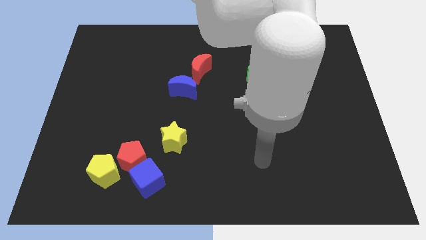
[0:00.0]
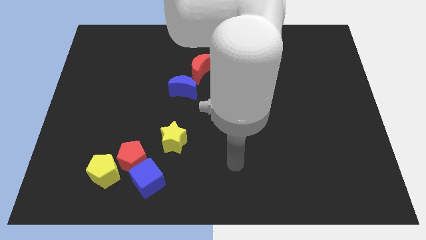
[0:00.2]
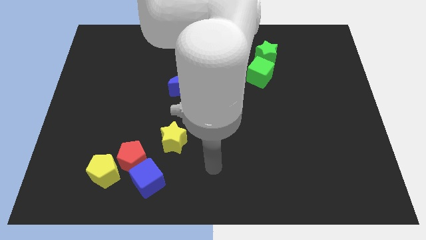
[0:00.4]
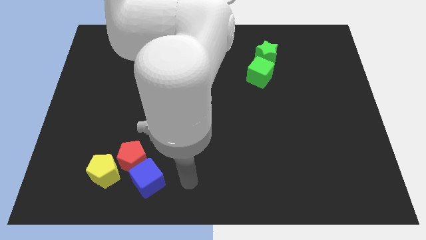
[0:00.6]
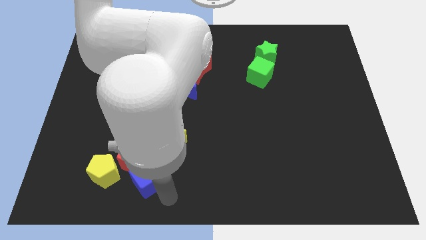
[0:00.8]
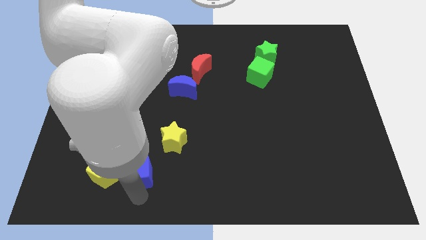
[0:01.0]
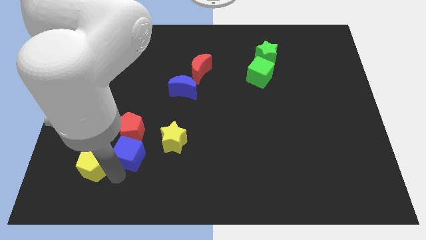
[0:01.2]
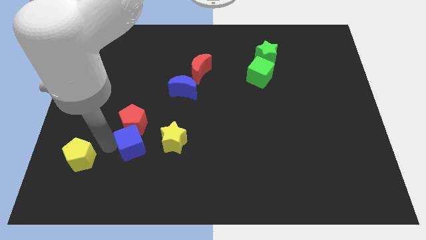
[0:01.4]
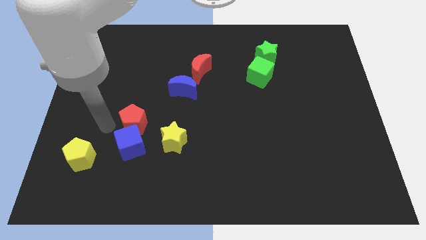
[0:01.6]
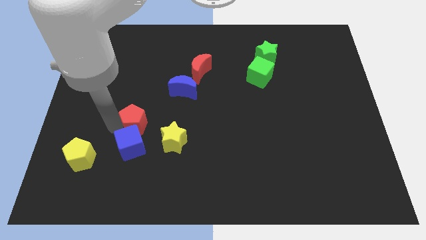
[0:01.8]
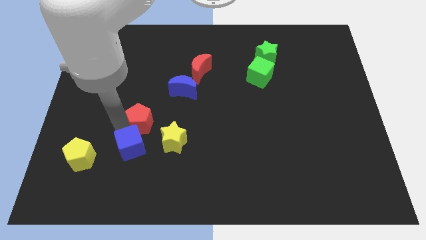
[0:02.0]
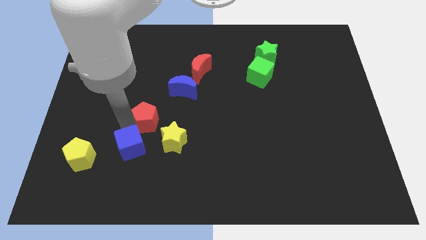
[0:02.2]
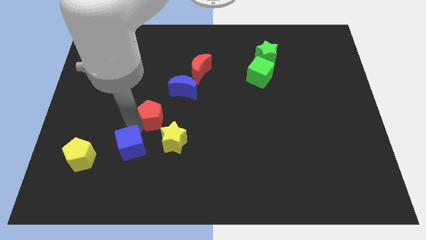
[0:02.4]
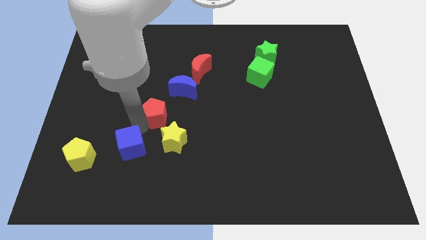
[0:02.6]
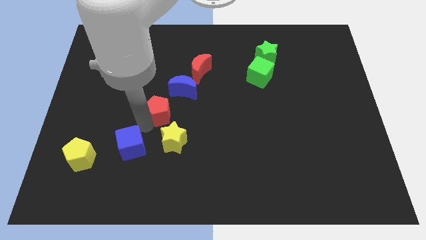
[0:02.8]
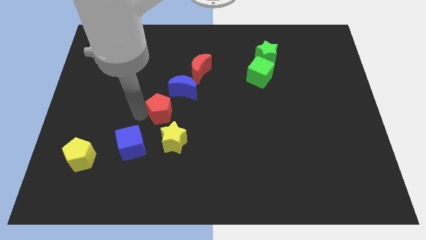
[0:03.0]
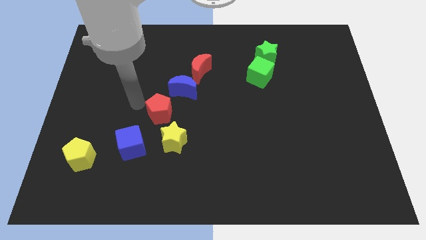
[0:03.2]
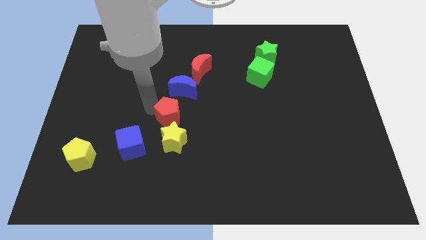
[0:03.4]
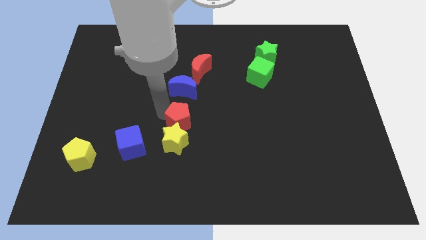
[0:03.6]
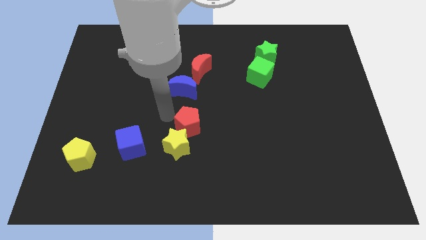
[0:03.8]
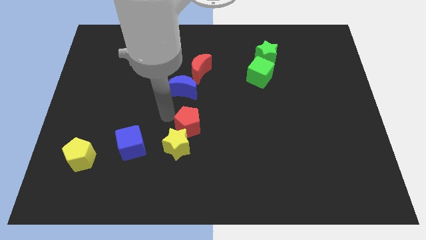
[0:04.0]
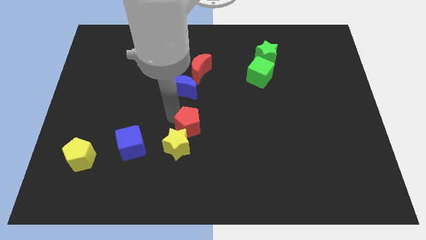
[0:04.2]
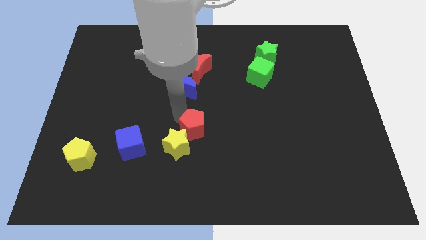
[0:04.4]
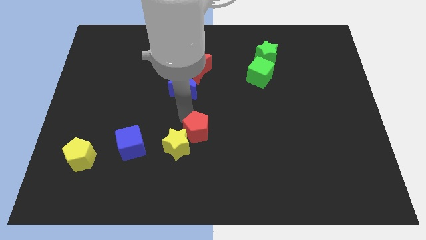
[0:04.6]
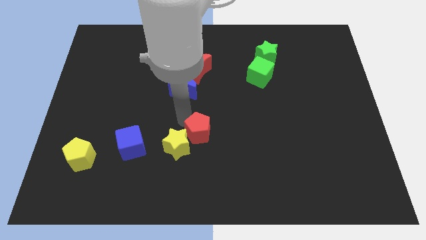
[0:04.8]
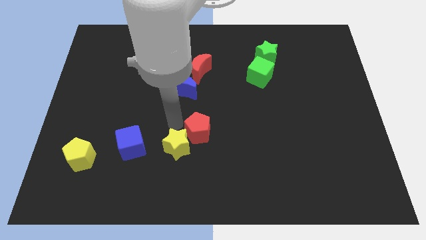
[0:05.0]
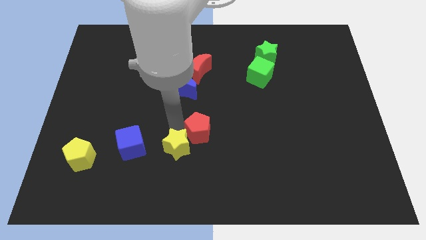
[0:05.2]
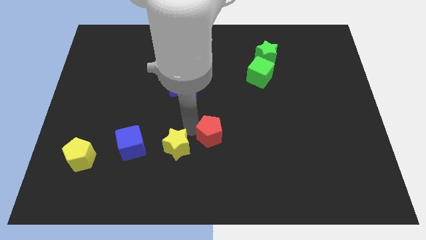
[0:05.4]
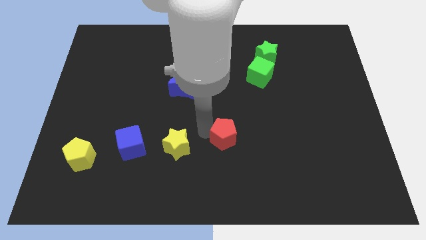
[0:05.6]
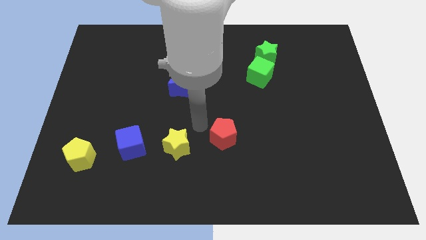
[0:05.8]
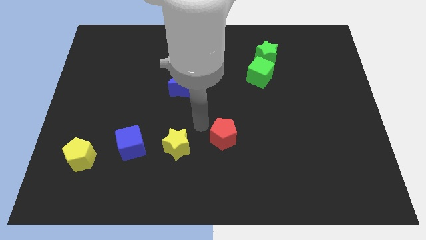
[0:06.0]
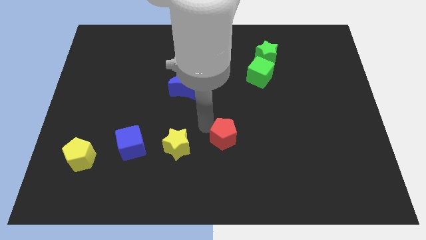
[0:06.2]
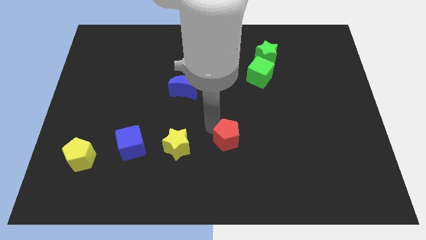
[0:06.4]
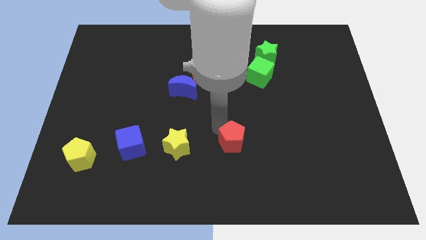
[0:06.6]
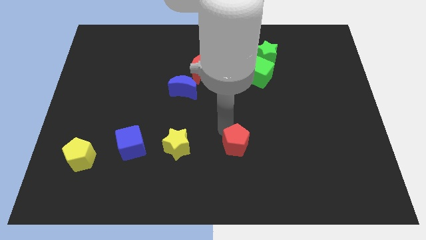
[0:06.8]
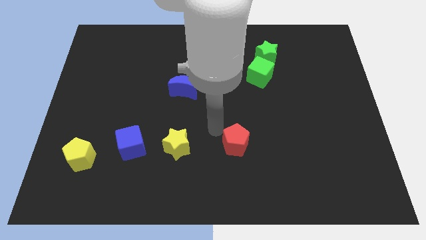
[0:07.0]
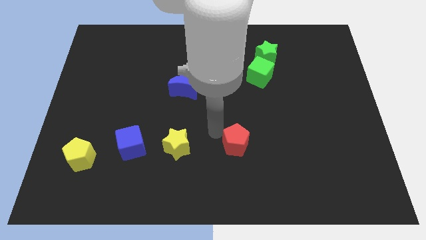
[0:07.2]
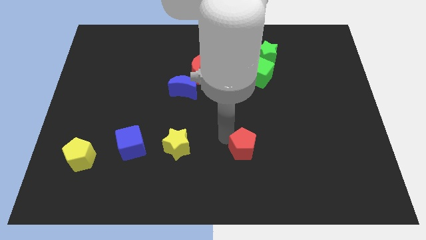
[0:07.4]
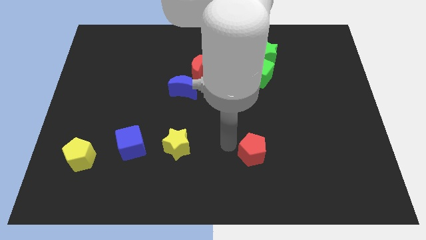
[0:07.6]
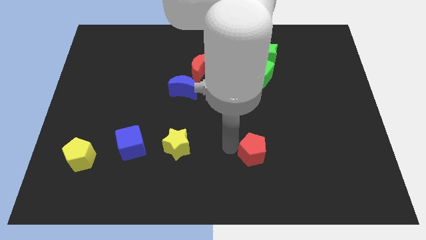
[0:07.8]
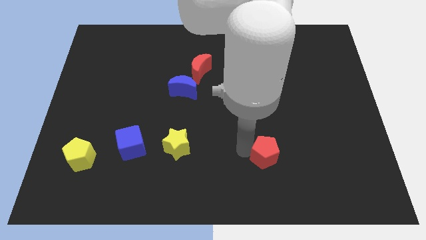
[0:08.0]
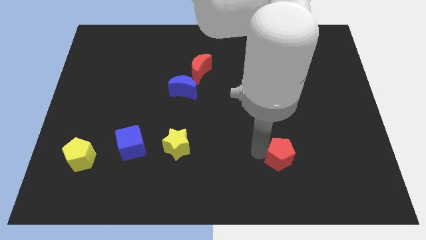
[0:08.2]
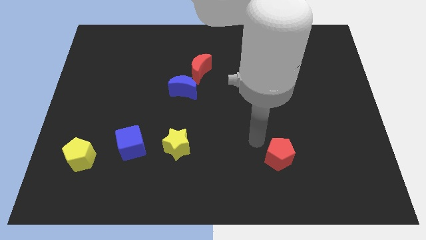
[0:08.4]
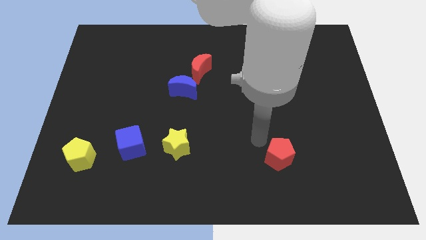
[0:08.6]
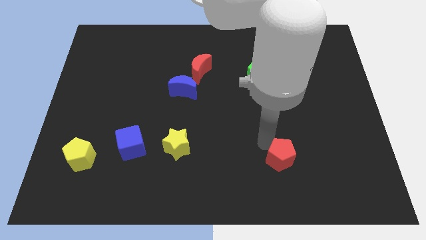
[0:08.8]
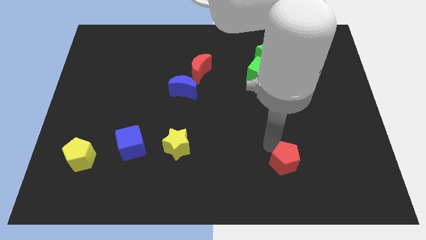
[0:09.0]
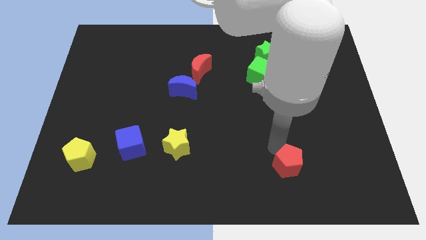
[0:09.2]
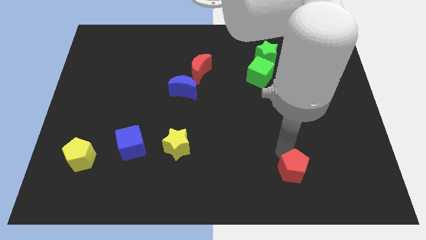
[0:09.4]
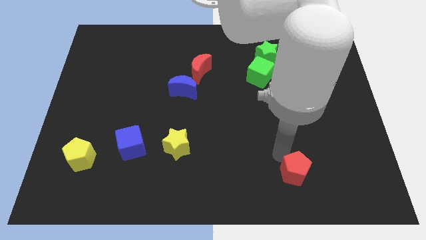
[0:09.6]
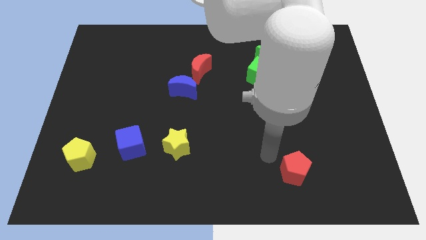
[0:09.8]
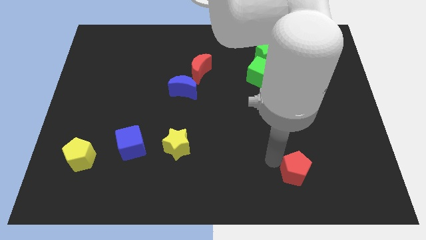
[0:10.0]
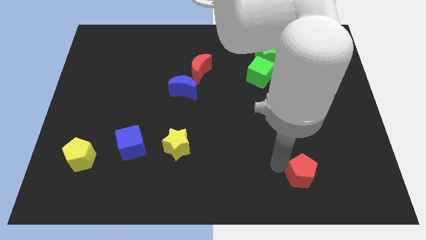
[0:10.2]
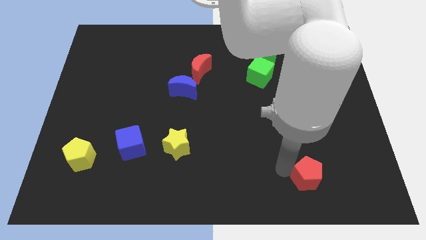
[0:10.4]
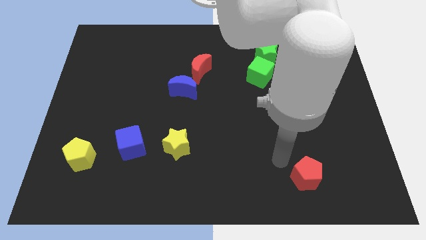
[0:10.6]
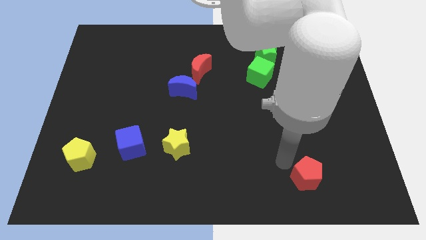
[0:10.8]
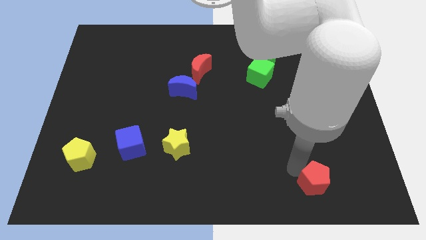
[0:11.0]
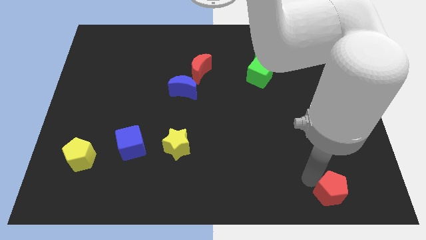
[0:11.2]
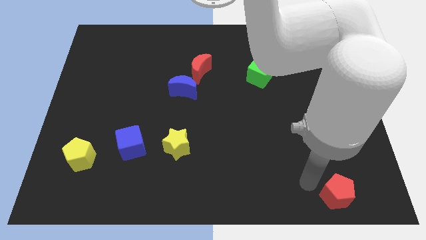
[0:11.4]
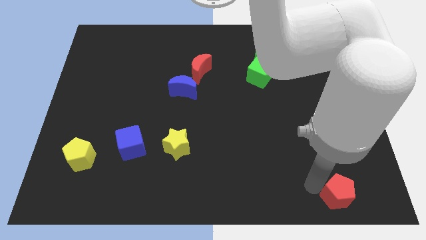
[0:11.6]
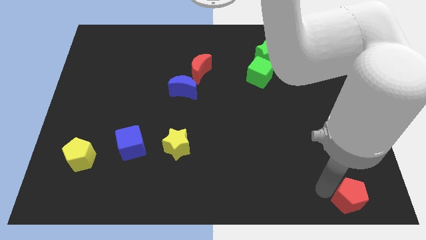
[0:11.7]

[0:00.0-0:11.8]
push the red pentagon to the lower right corner
